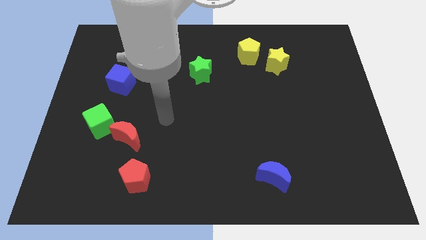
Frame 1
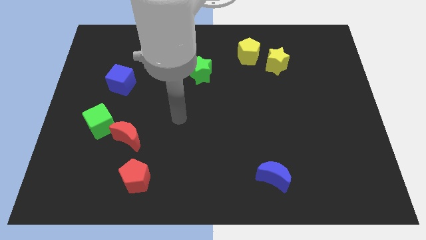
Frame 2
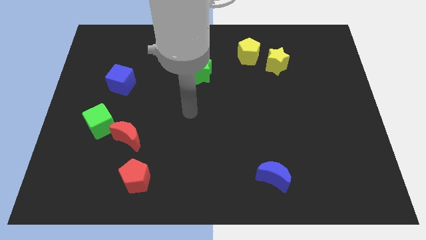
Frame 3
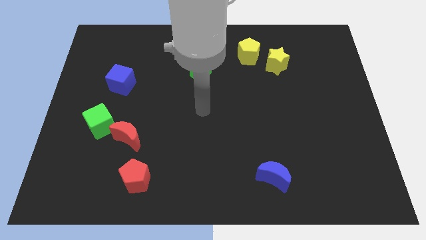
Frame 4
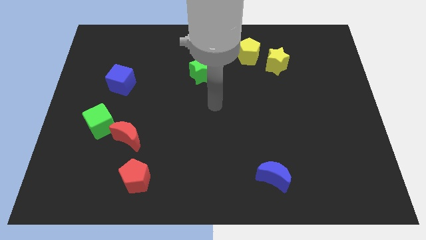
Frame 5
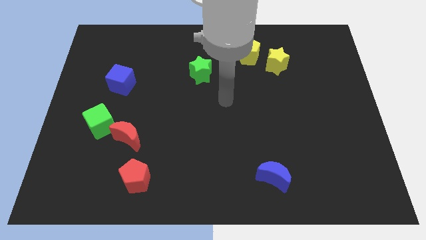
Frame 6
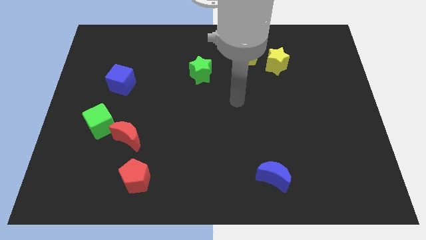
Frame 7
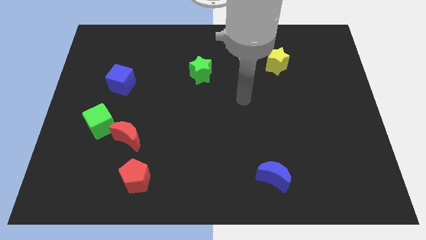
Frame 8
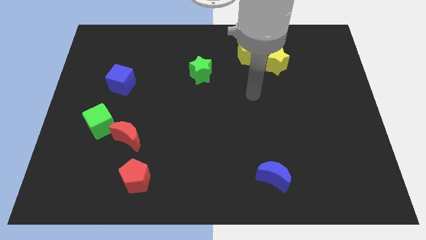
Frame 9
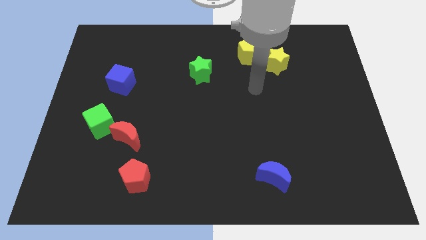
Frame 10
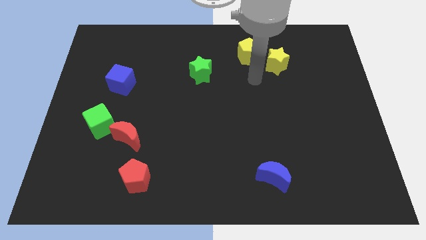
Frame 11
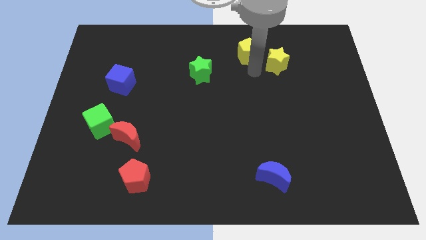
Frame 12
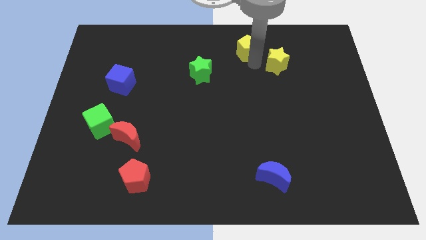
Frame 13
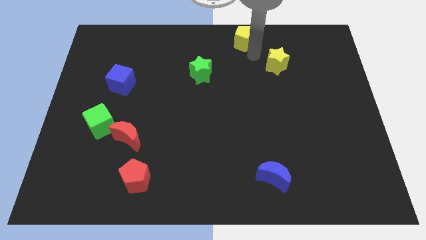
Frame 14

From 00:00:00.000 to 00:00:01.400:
move the yellow star away from the yellow pentagon

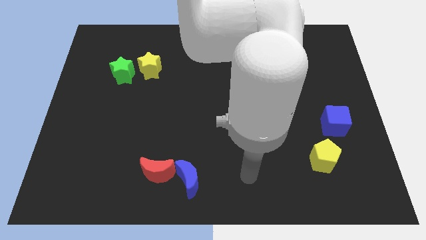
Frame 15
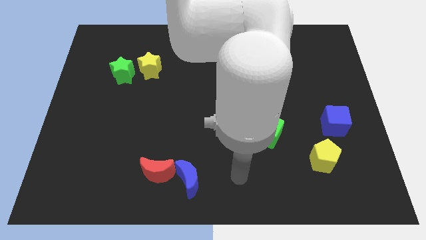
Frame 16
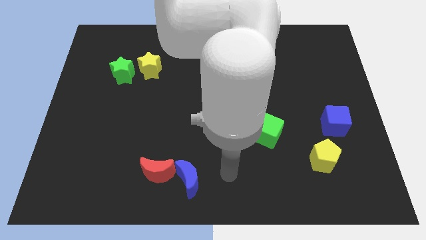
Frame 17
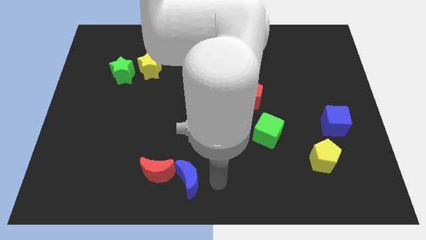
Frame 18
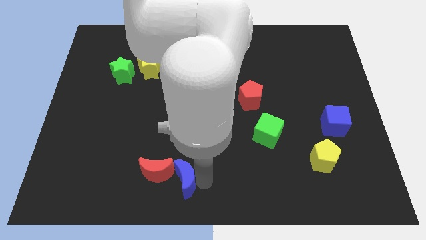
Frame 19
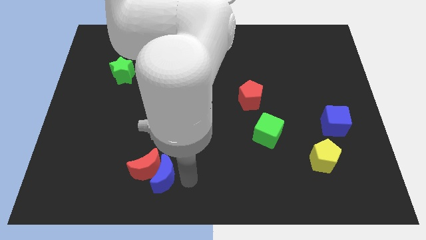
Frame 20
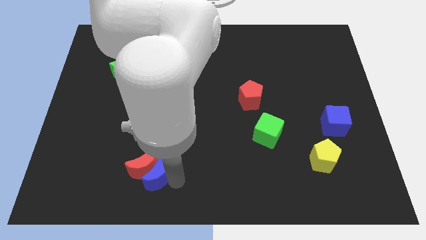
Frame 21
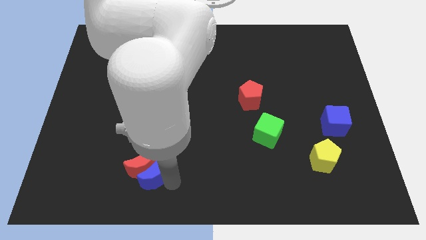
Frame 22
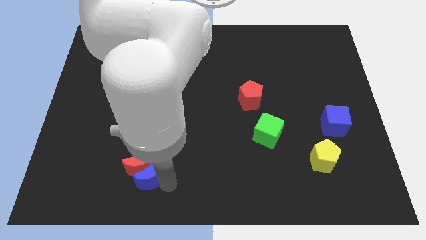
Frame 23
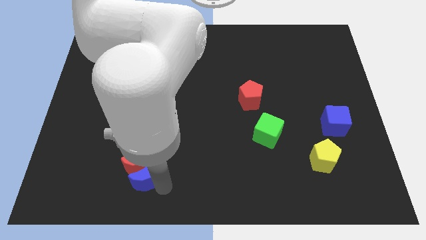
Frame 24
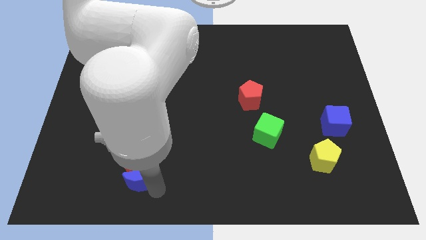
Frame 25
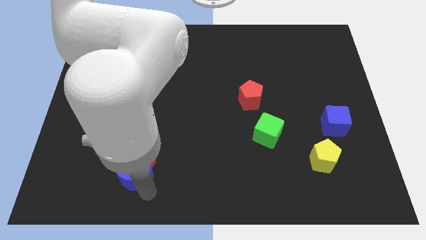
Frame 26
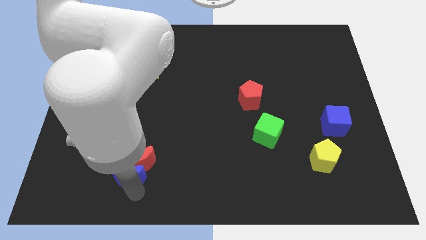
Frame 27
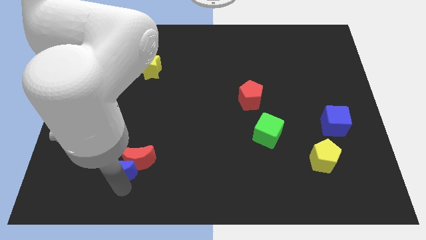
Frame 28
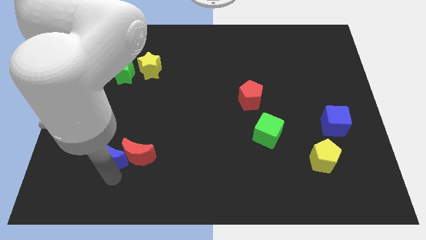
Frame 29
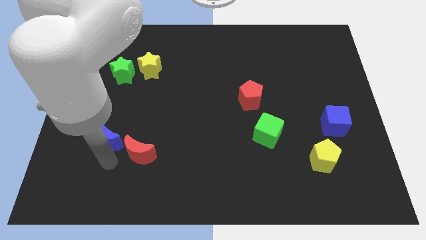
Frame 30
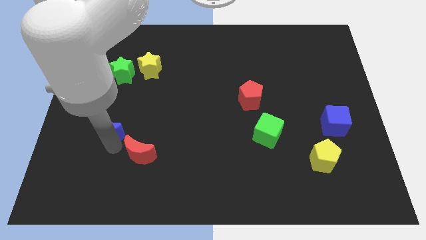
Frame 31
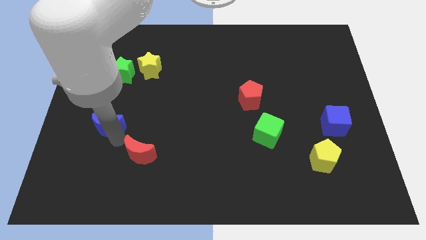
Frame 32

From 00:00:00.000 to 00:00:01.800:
pull the red moon apart from the blue moon

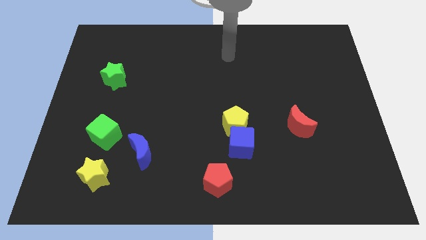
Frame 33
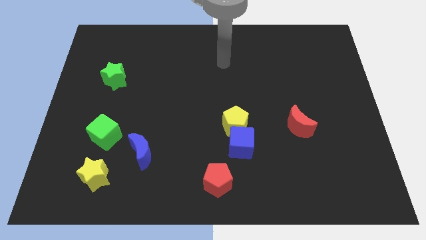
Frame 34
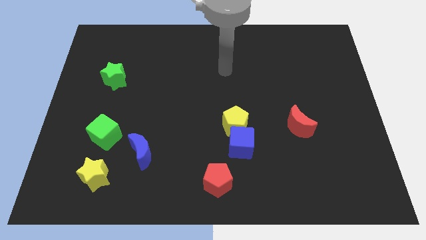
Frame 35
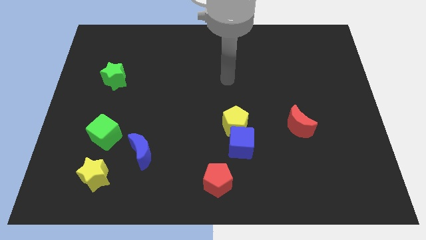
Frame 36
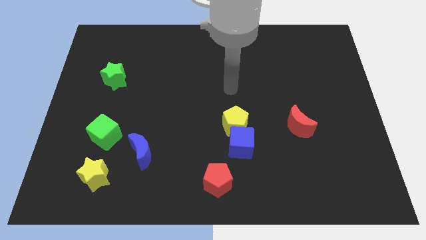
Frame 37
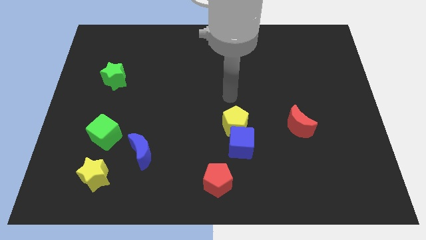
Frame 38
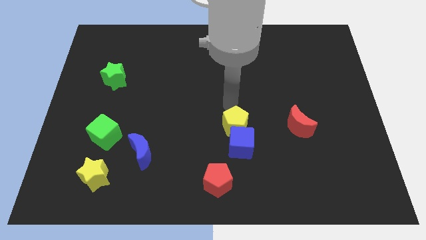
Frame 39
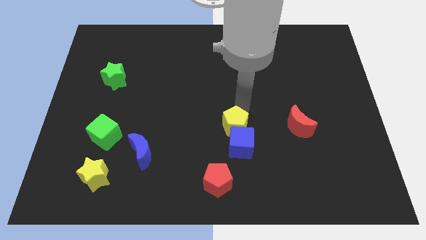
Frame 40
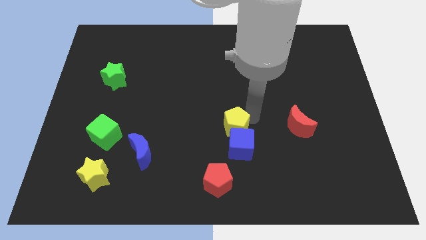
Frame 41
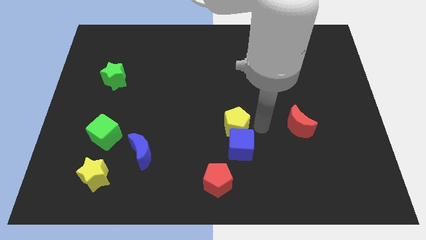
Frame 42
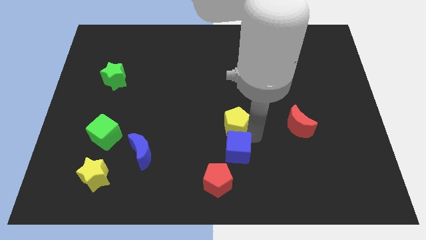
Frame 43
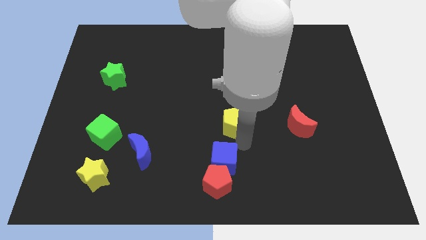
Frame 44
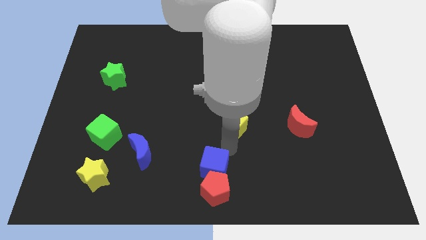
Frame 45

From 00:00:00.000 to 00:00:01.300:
move the yellow pentagon away from the blue cube

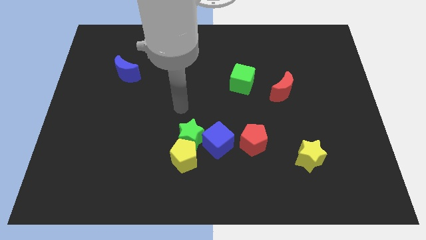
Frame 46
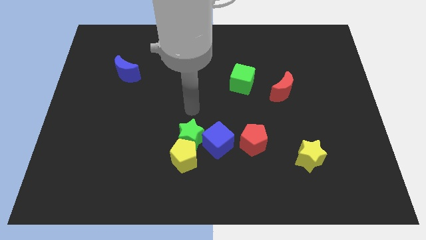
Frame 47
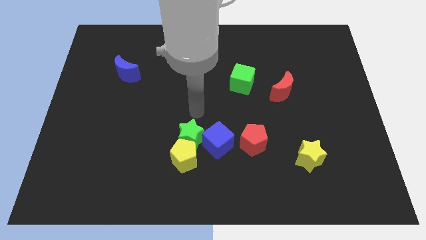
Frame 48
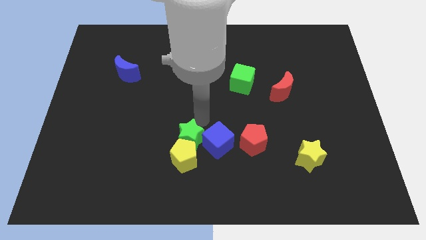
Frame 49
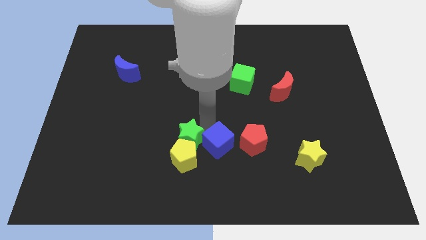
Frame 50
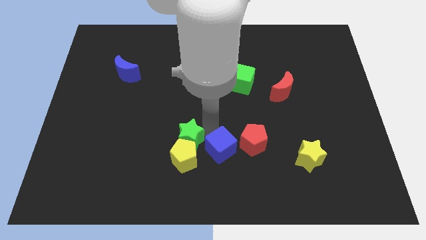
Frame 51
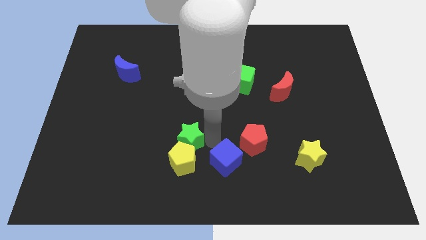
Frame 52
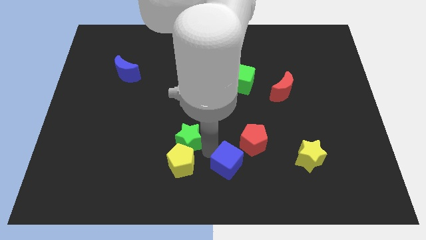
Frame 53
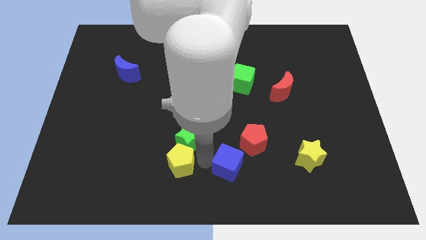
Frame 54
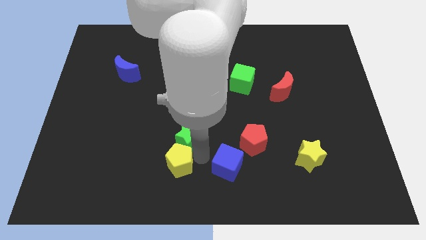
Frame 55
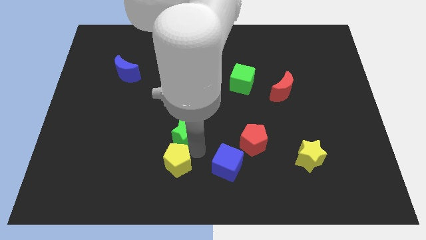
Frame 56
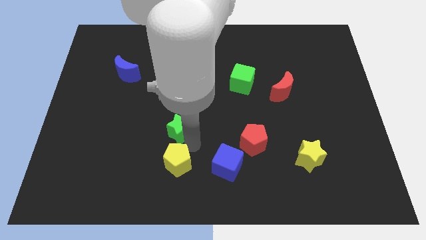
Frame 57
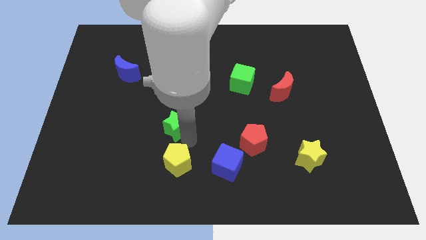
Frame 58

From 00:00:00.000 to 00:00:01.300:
move the green star away from the yellow pentagon and blue cube

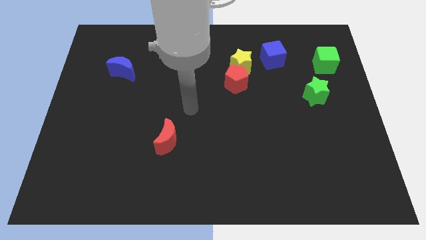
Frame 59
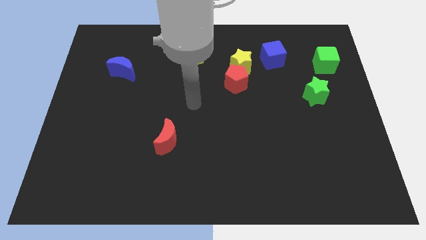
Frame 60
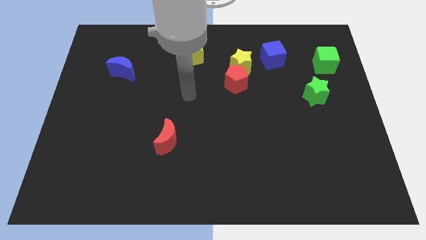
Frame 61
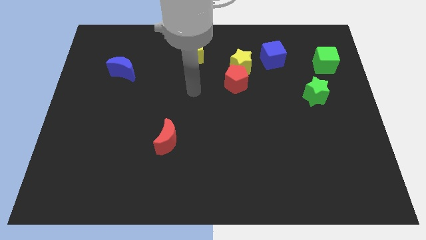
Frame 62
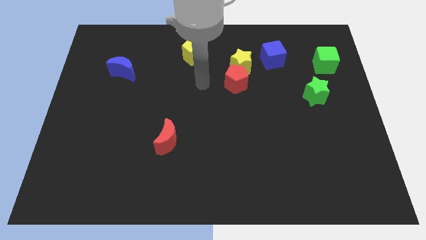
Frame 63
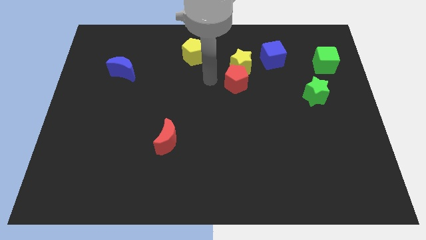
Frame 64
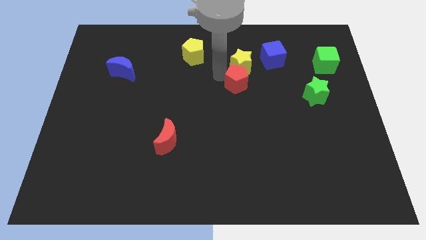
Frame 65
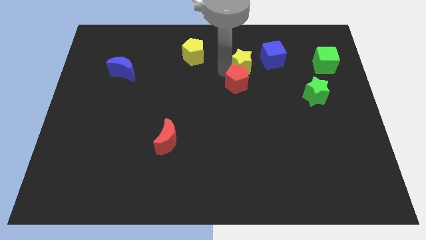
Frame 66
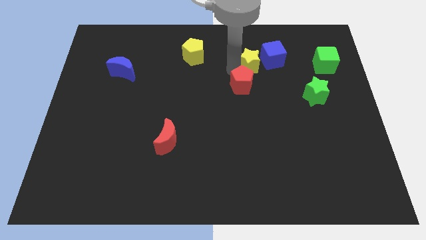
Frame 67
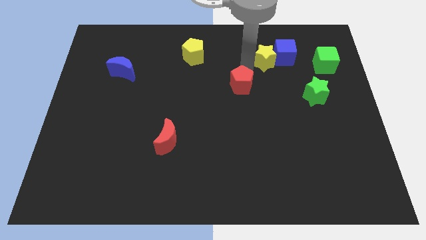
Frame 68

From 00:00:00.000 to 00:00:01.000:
separate the red pentagon from the yellow star

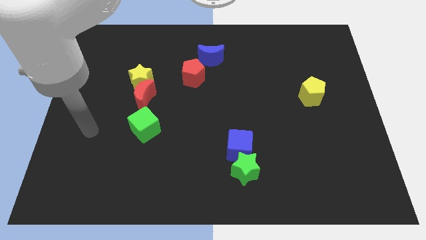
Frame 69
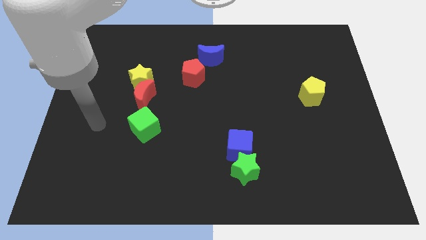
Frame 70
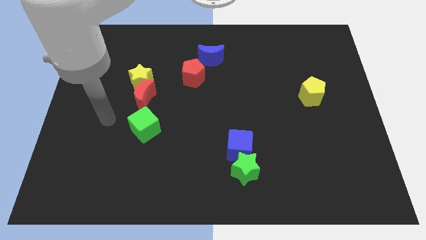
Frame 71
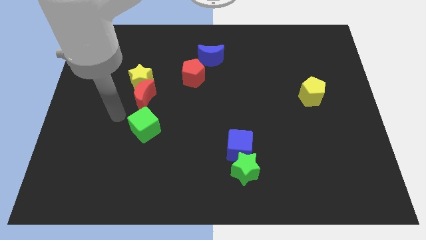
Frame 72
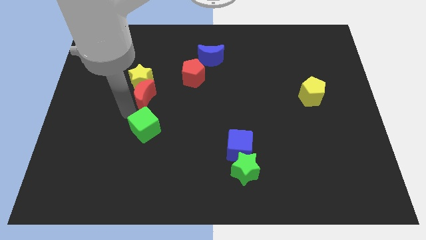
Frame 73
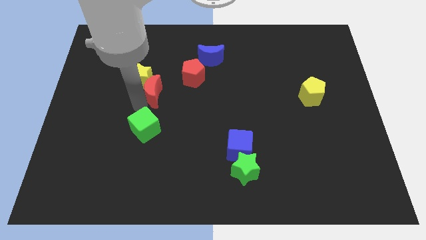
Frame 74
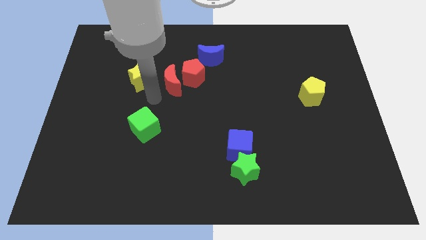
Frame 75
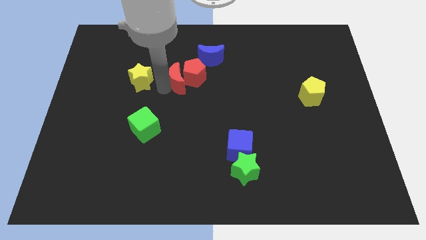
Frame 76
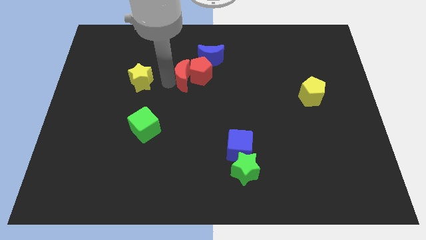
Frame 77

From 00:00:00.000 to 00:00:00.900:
pull the yellow star apart from the red moon

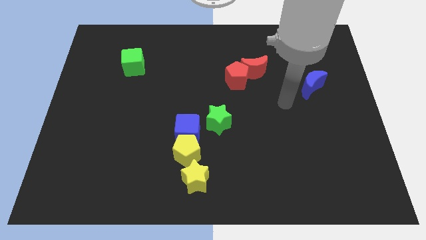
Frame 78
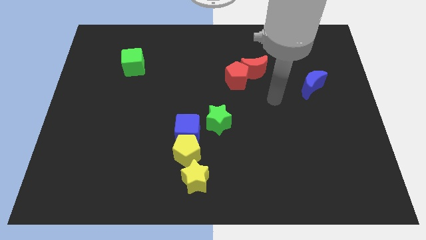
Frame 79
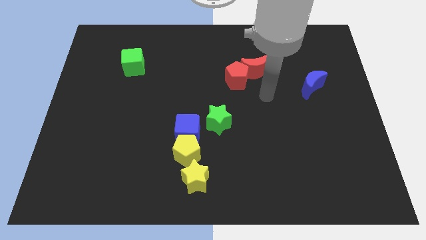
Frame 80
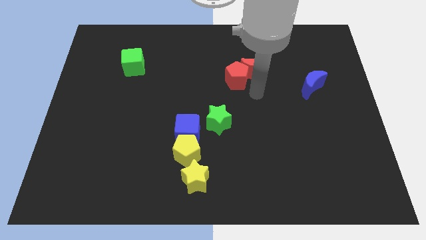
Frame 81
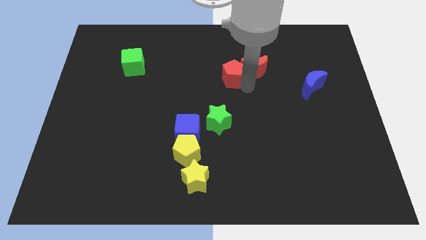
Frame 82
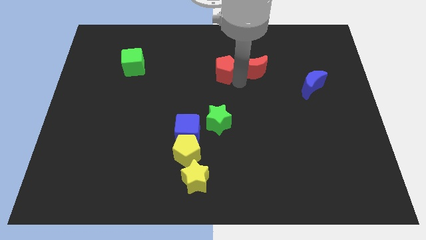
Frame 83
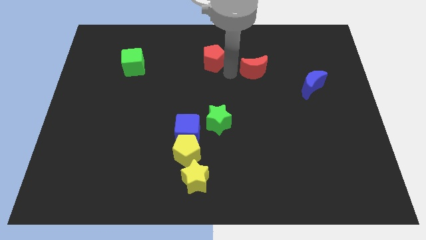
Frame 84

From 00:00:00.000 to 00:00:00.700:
move the red moon away from the red pentagon

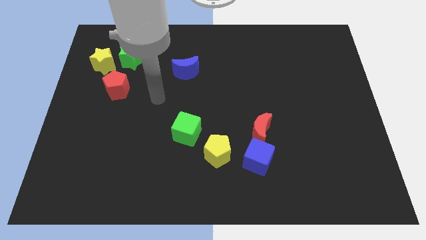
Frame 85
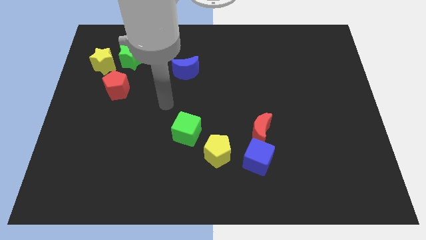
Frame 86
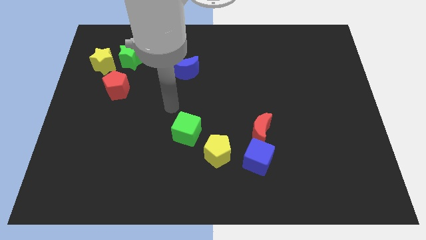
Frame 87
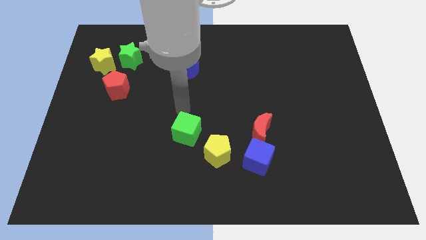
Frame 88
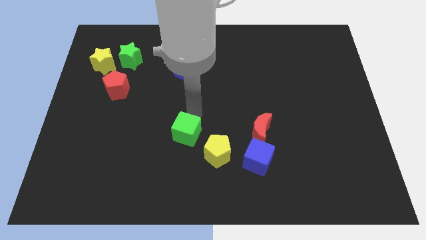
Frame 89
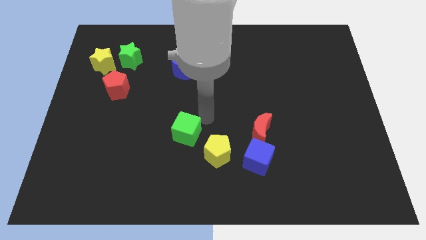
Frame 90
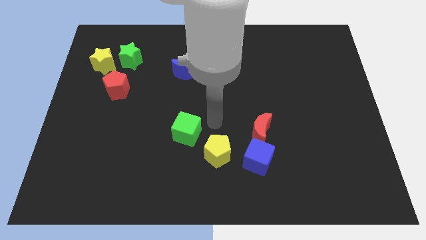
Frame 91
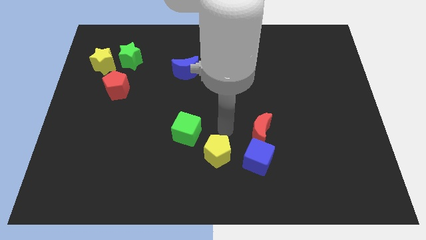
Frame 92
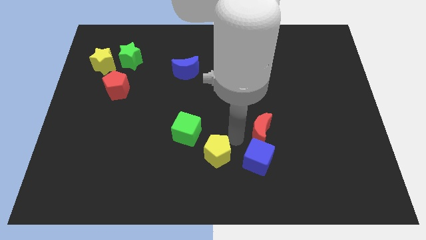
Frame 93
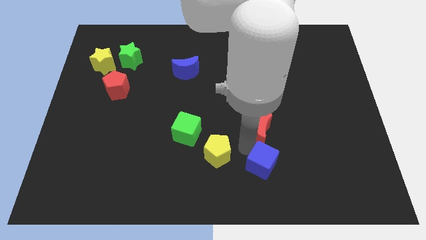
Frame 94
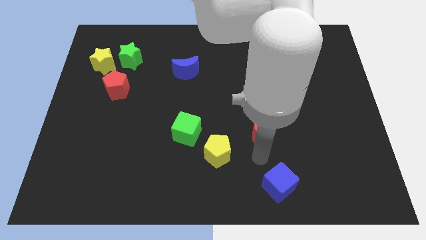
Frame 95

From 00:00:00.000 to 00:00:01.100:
pull the red moon apart from the blue cube
